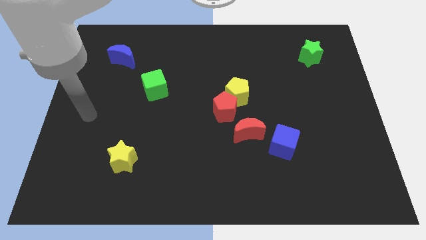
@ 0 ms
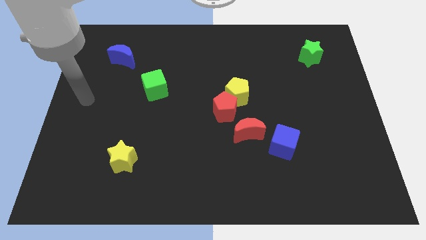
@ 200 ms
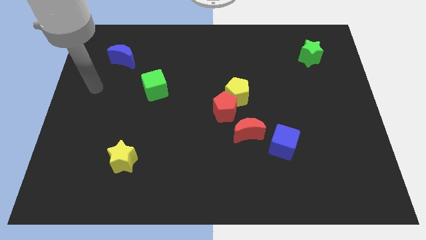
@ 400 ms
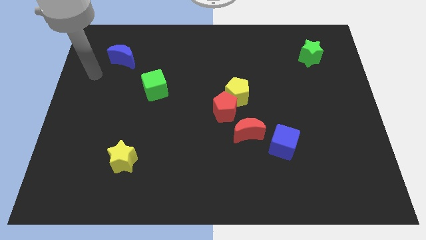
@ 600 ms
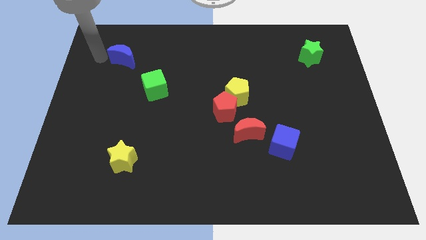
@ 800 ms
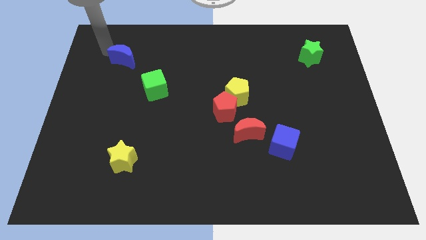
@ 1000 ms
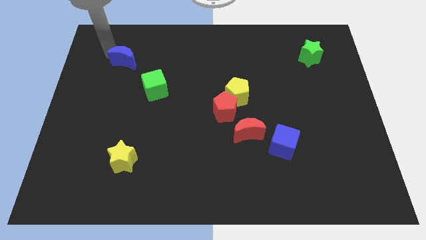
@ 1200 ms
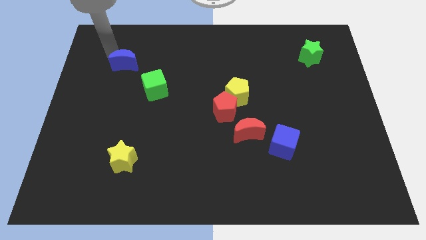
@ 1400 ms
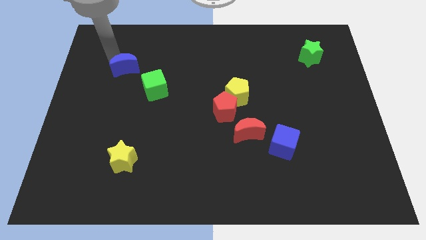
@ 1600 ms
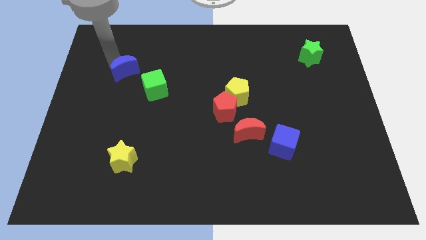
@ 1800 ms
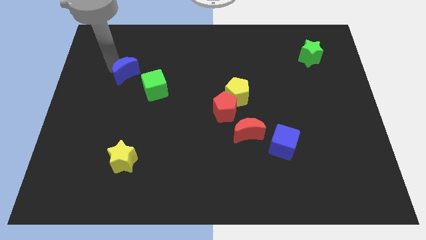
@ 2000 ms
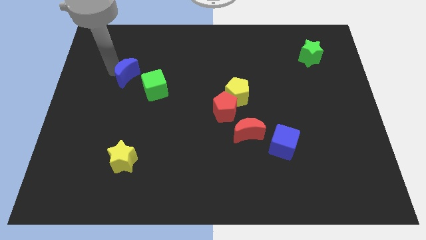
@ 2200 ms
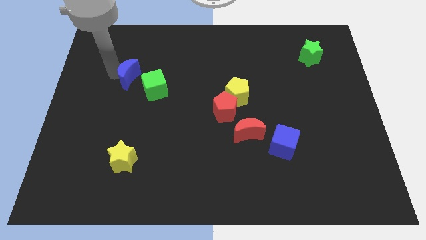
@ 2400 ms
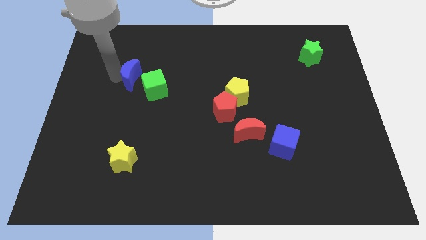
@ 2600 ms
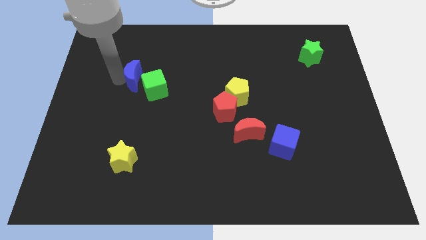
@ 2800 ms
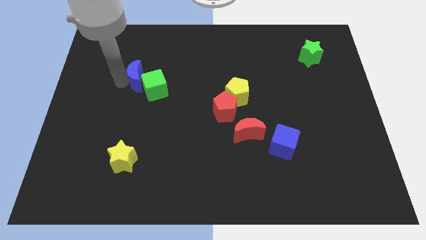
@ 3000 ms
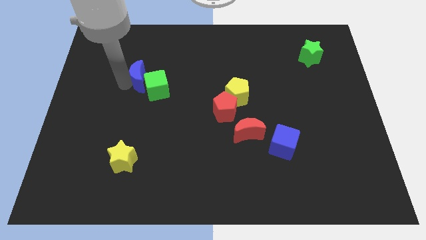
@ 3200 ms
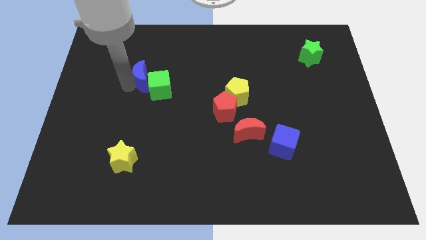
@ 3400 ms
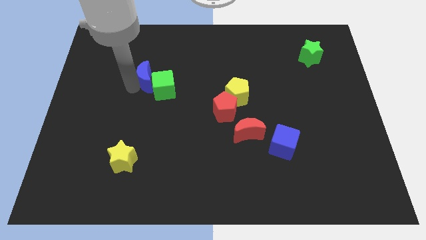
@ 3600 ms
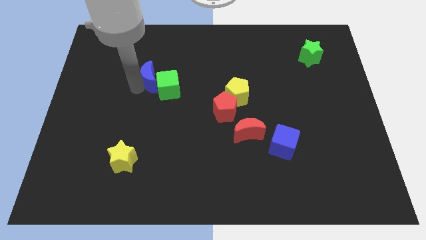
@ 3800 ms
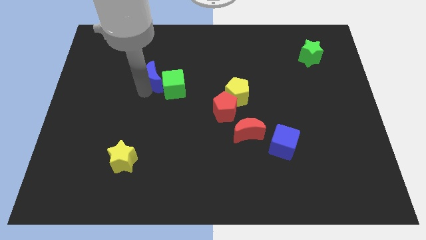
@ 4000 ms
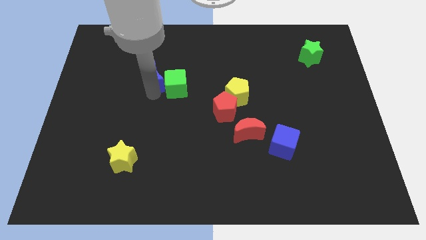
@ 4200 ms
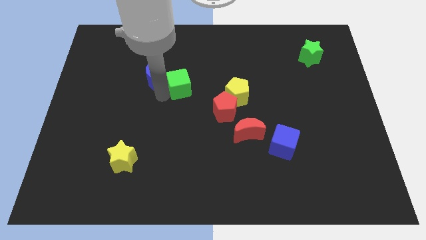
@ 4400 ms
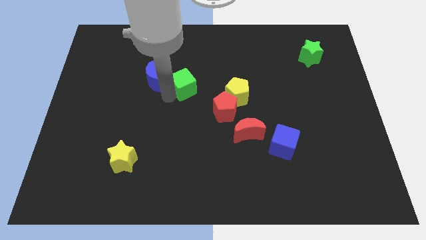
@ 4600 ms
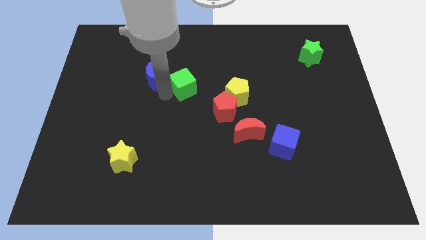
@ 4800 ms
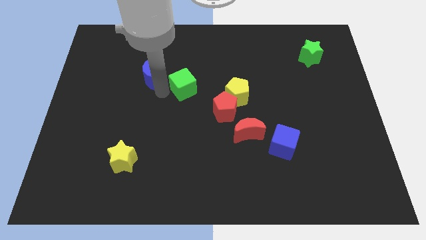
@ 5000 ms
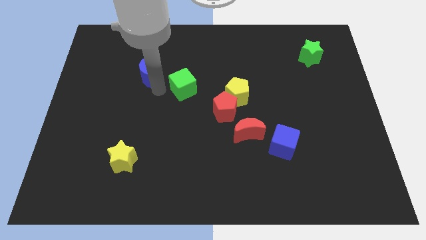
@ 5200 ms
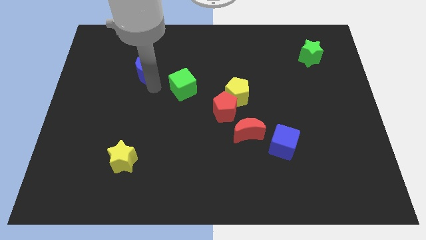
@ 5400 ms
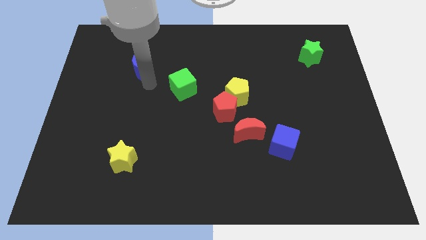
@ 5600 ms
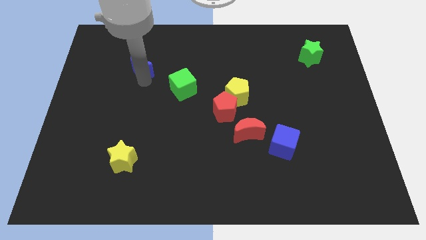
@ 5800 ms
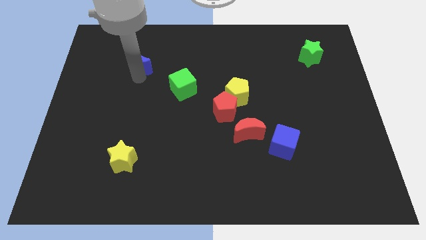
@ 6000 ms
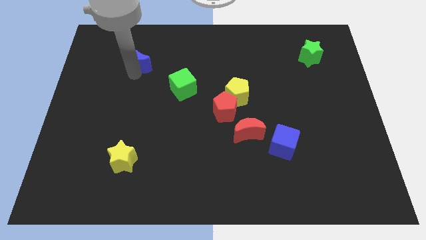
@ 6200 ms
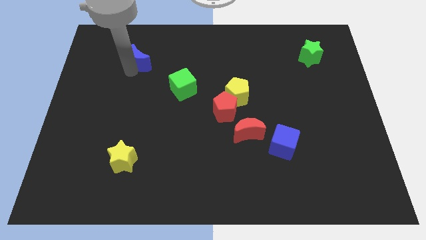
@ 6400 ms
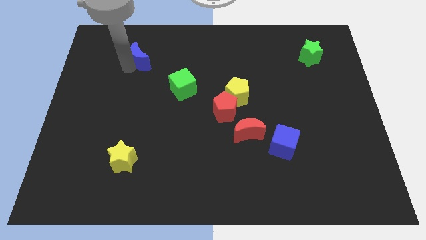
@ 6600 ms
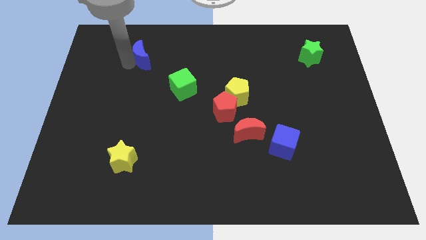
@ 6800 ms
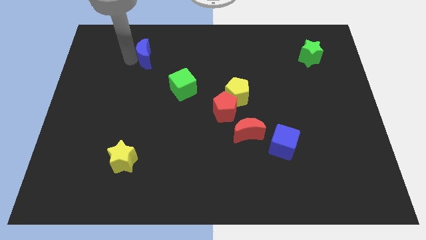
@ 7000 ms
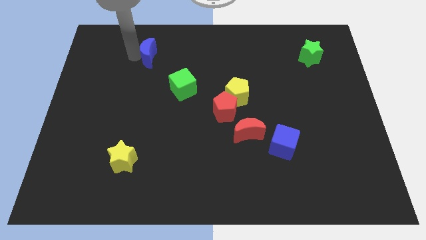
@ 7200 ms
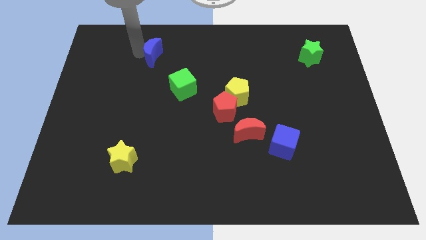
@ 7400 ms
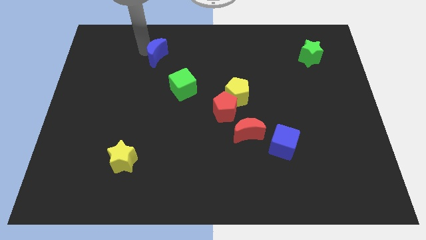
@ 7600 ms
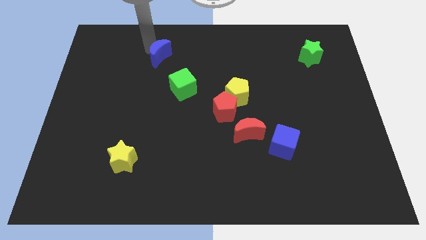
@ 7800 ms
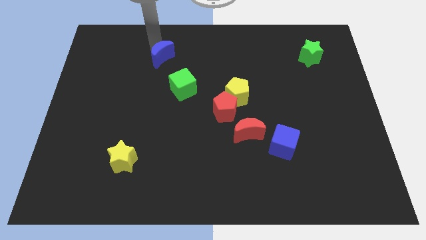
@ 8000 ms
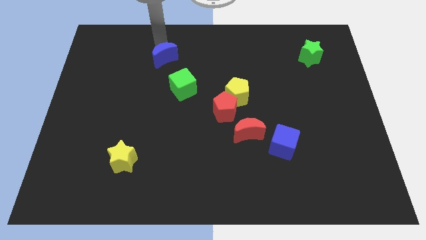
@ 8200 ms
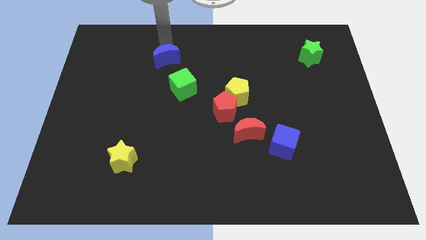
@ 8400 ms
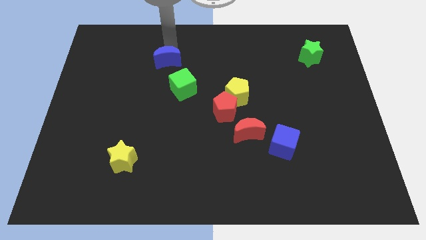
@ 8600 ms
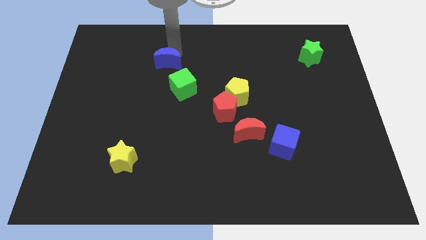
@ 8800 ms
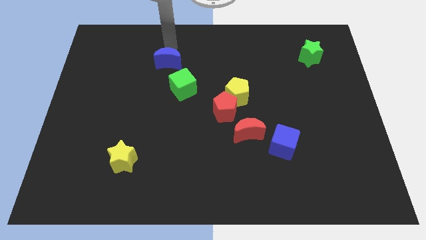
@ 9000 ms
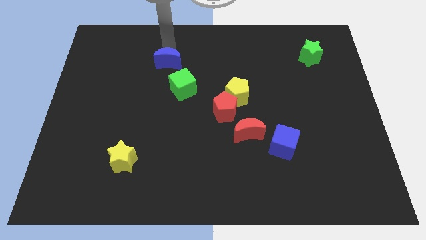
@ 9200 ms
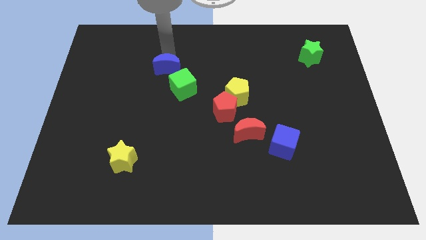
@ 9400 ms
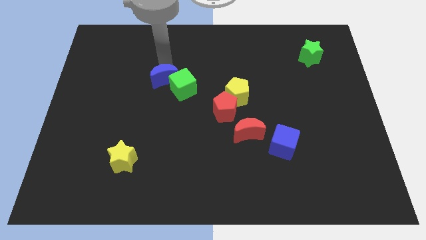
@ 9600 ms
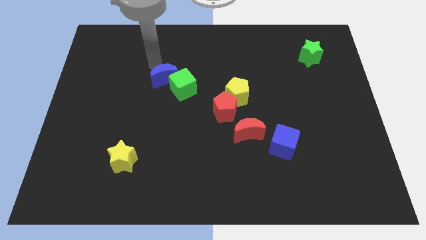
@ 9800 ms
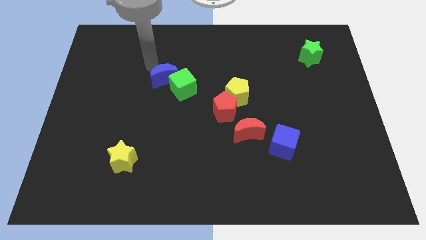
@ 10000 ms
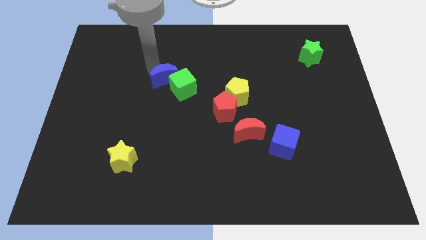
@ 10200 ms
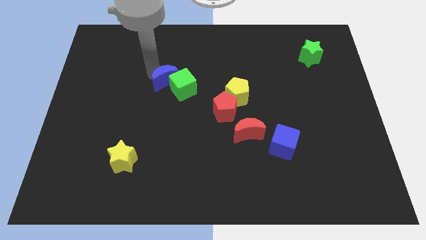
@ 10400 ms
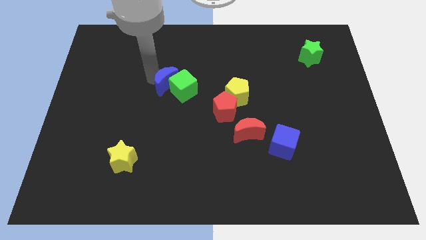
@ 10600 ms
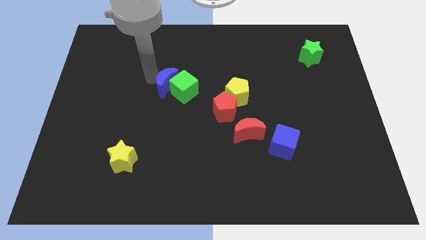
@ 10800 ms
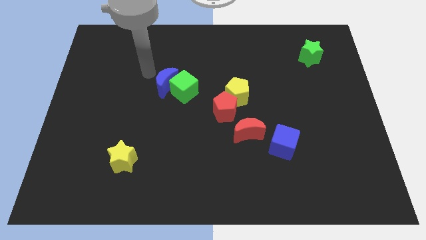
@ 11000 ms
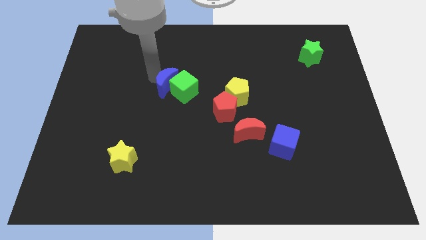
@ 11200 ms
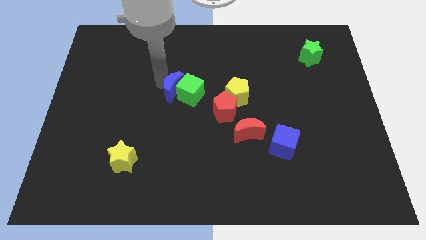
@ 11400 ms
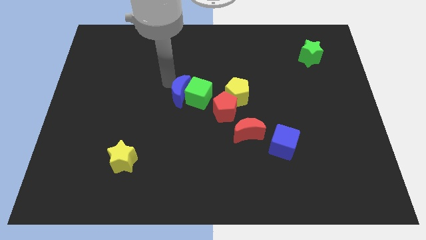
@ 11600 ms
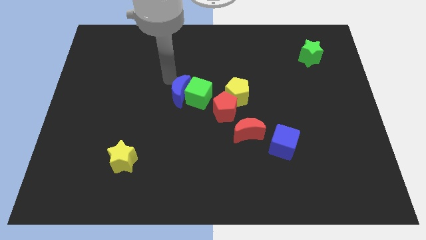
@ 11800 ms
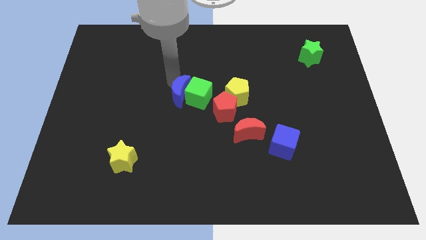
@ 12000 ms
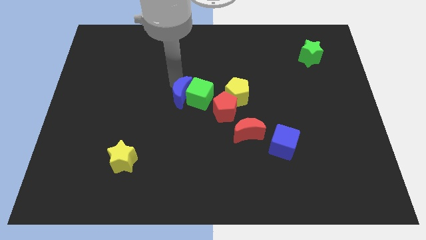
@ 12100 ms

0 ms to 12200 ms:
move the blue moon down and to the right diagonally

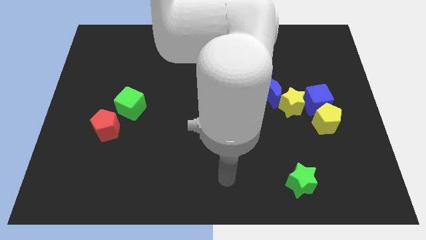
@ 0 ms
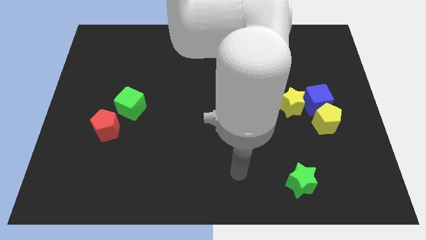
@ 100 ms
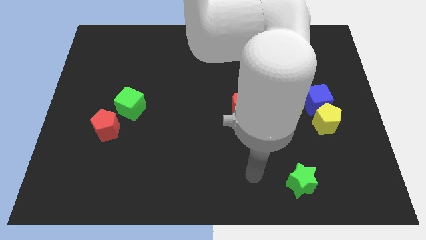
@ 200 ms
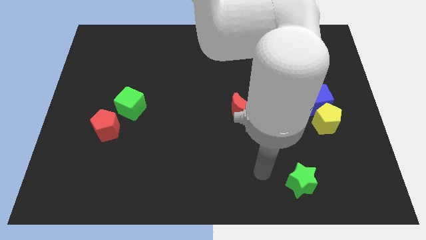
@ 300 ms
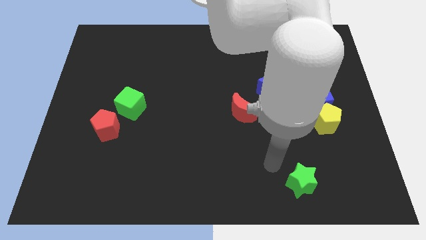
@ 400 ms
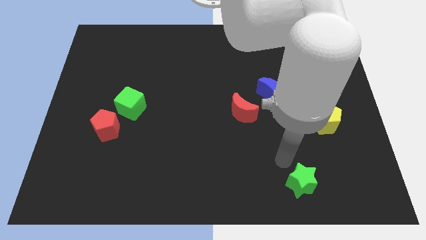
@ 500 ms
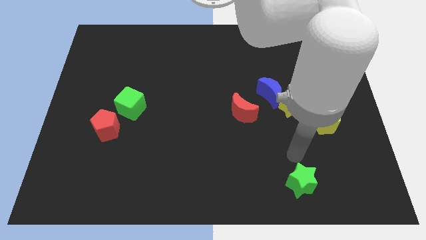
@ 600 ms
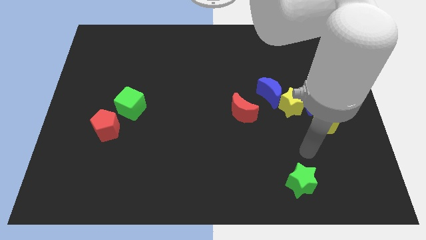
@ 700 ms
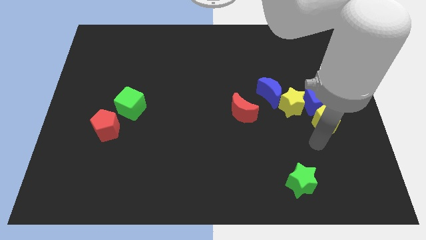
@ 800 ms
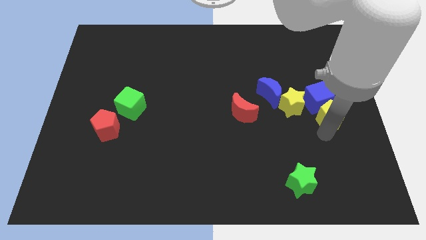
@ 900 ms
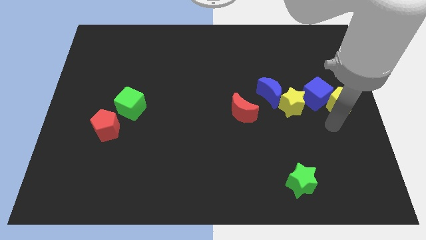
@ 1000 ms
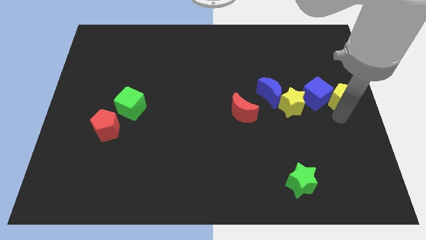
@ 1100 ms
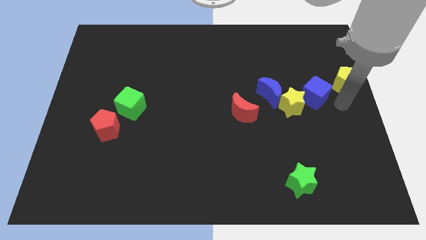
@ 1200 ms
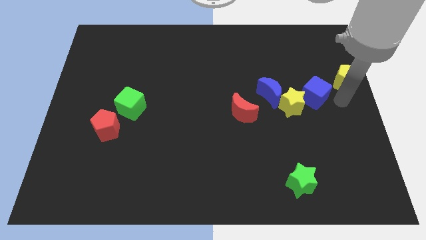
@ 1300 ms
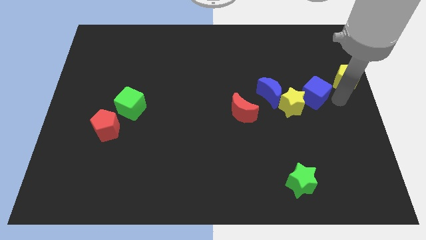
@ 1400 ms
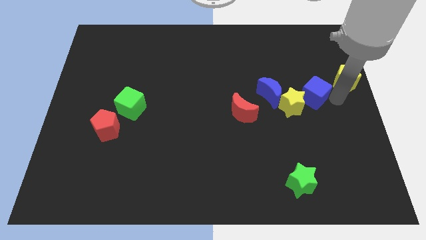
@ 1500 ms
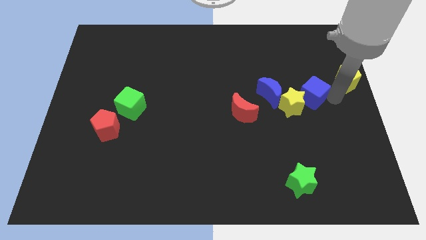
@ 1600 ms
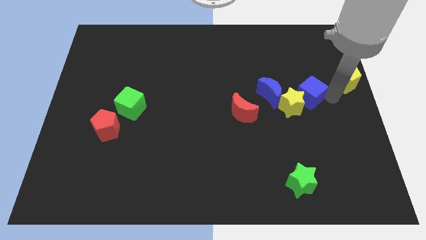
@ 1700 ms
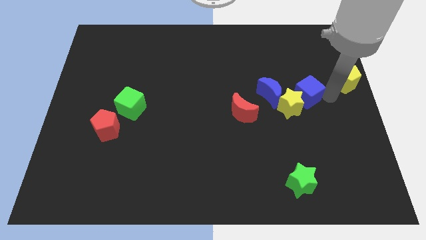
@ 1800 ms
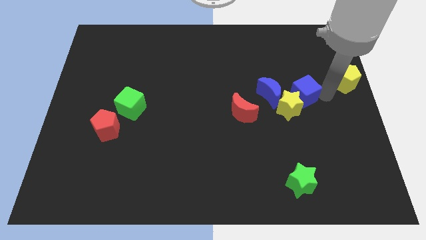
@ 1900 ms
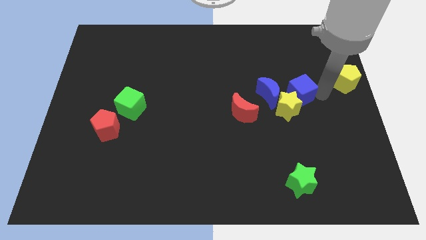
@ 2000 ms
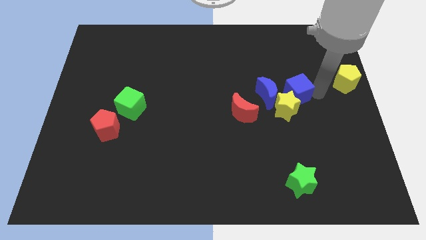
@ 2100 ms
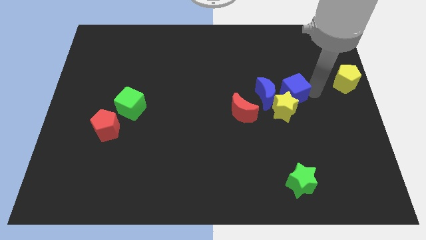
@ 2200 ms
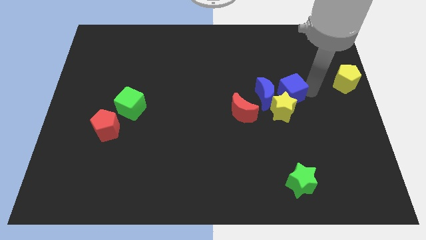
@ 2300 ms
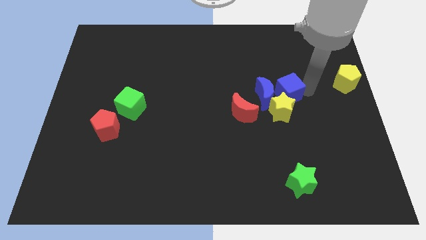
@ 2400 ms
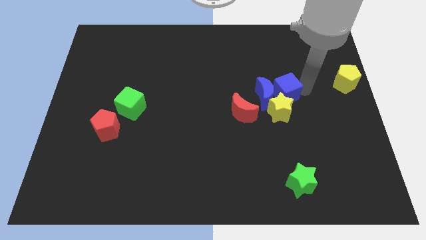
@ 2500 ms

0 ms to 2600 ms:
push the blue cube up and then to the left a little bit
